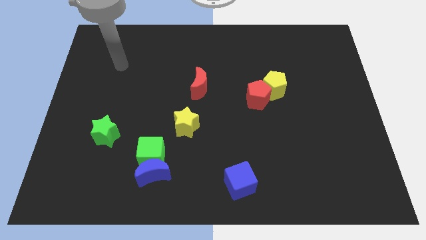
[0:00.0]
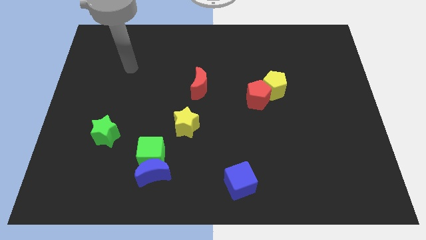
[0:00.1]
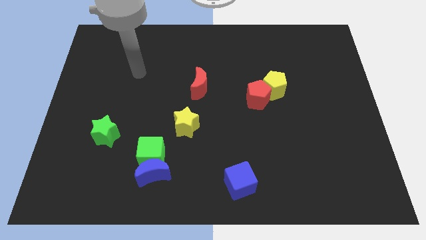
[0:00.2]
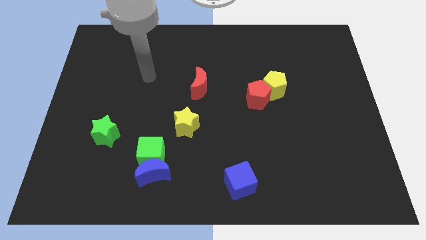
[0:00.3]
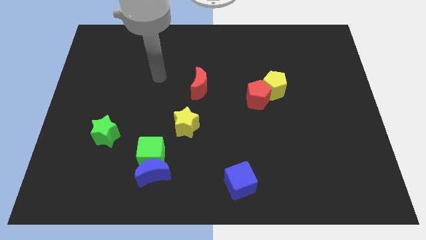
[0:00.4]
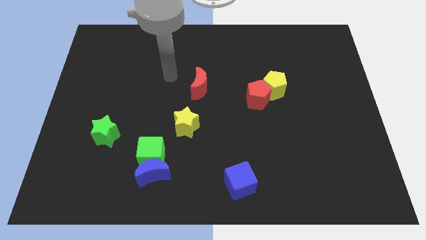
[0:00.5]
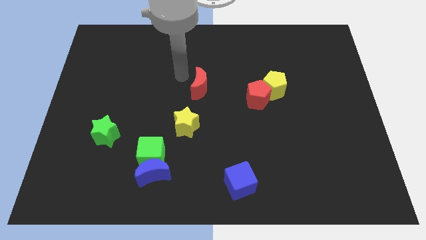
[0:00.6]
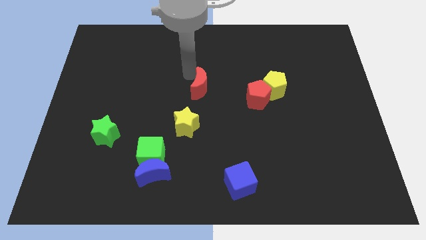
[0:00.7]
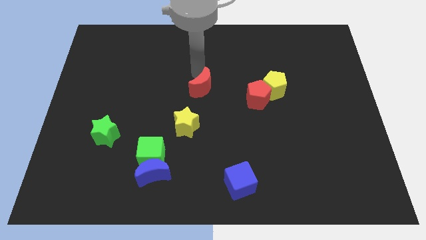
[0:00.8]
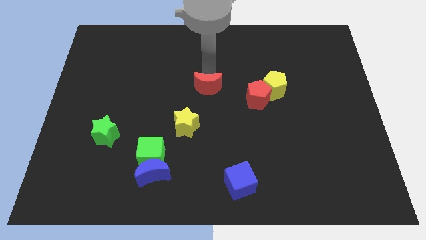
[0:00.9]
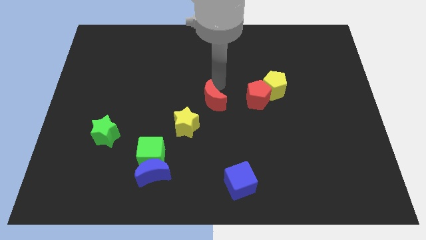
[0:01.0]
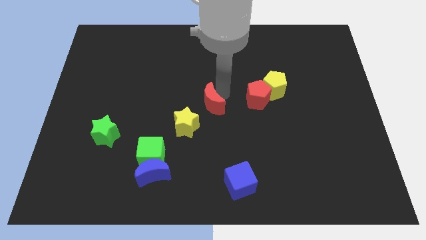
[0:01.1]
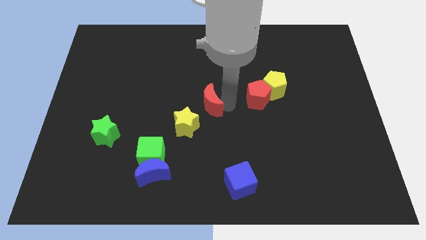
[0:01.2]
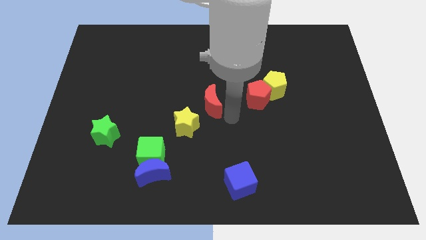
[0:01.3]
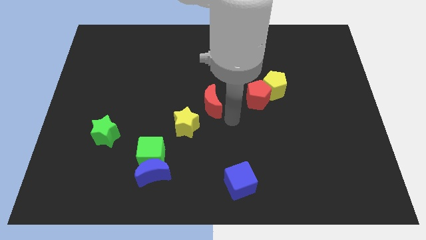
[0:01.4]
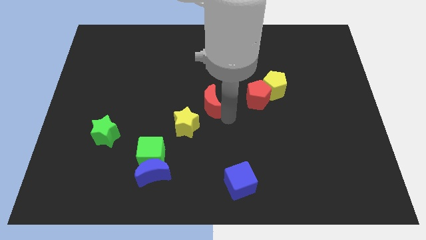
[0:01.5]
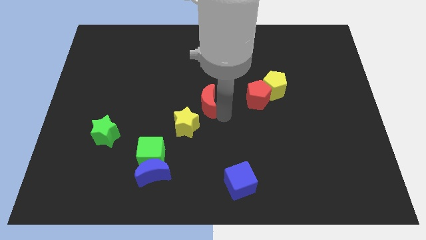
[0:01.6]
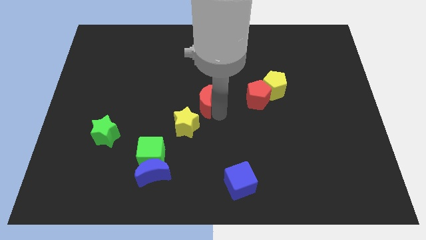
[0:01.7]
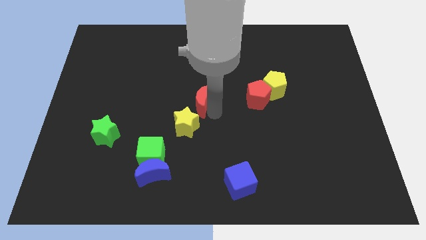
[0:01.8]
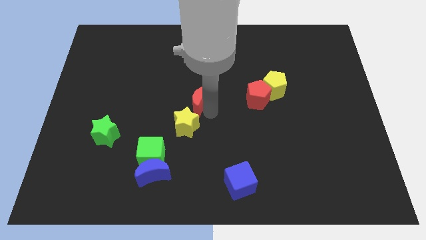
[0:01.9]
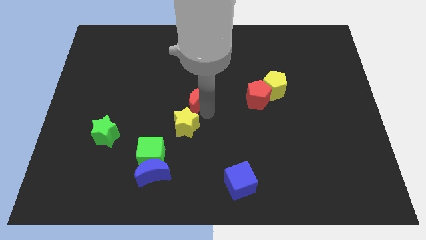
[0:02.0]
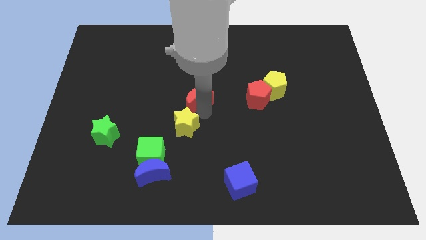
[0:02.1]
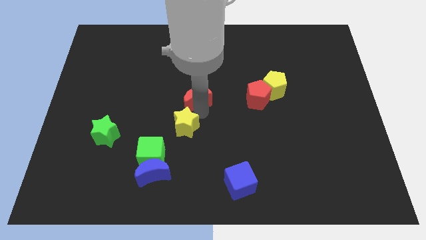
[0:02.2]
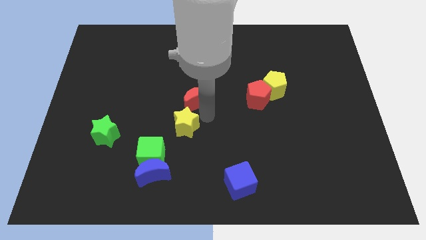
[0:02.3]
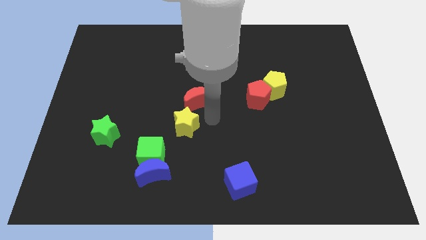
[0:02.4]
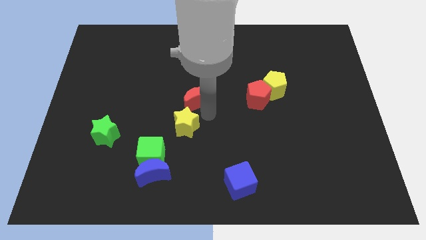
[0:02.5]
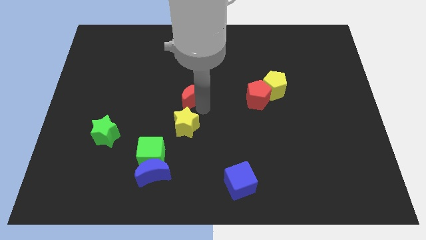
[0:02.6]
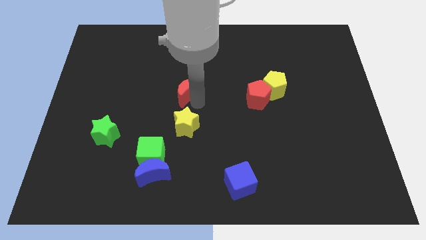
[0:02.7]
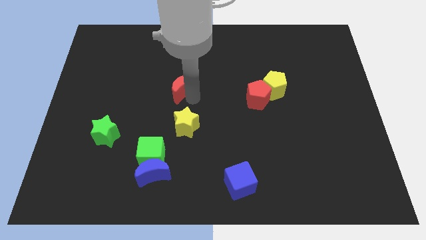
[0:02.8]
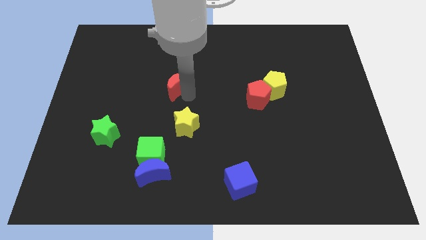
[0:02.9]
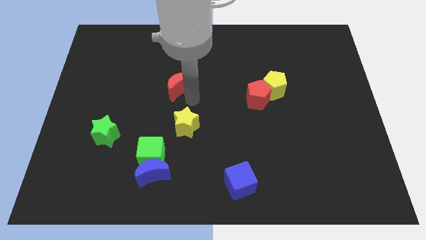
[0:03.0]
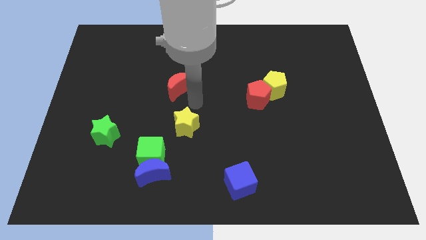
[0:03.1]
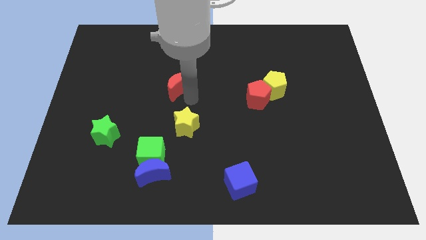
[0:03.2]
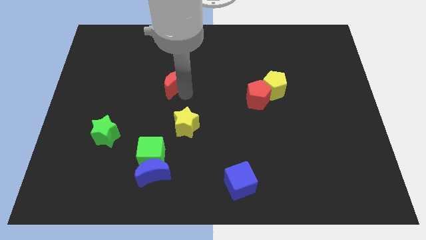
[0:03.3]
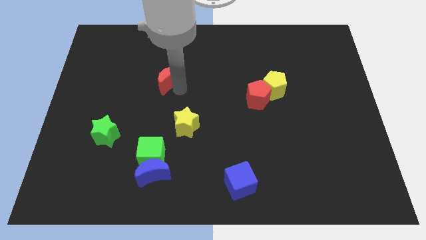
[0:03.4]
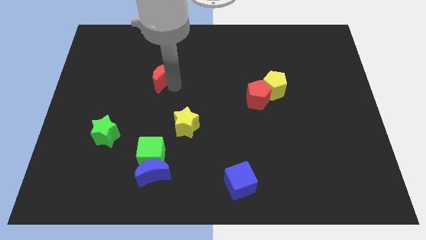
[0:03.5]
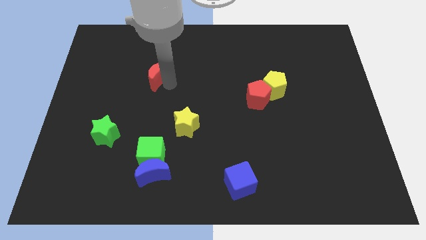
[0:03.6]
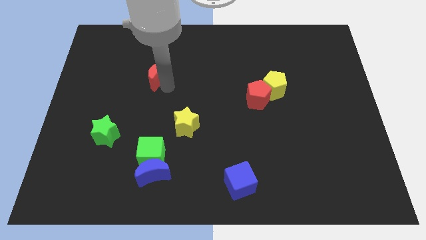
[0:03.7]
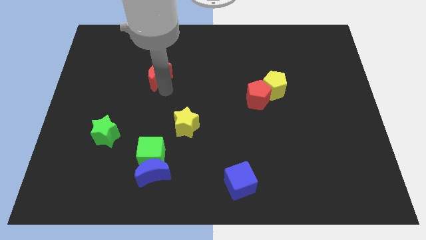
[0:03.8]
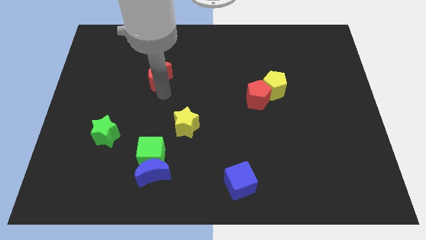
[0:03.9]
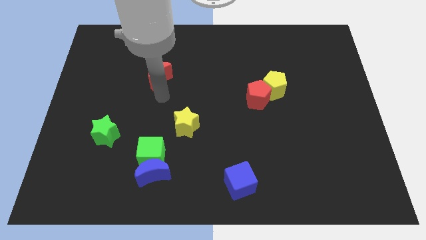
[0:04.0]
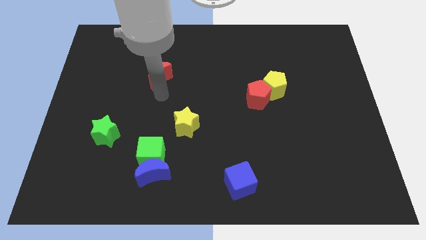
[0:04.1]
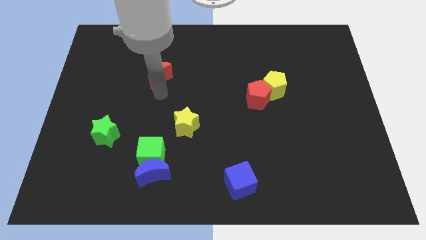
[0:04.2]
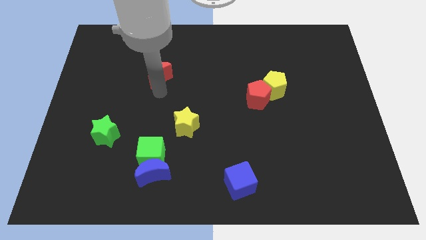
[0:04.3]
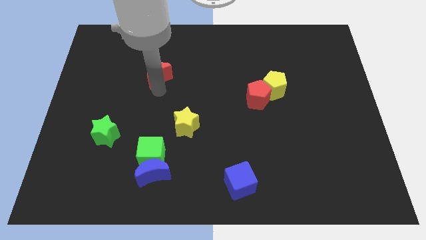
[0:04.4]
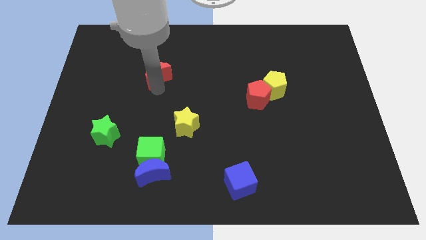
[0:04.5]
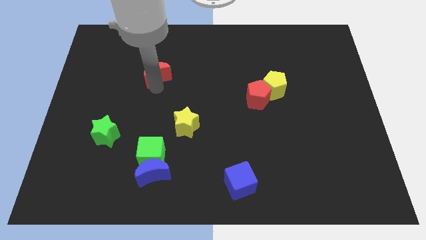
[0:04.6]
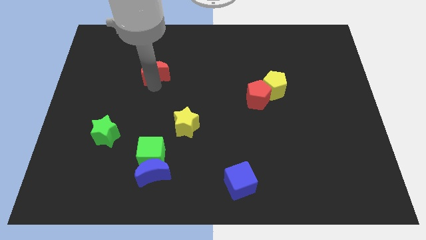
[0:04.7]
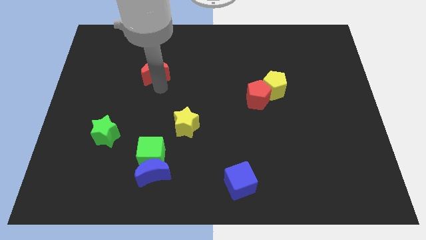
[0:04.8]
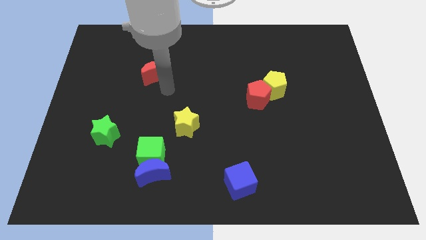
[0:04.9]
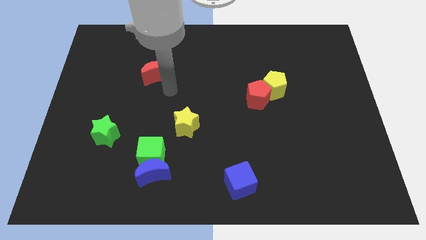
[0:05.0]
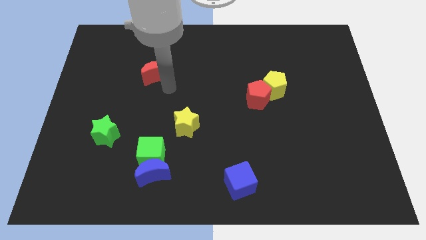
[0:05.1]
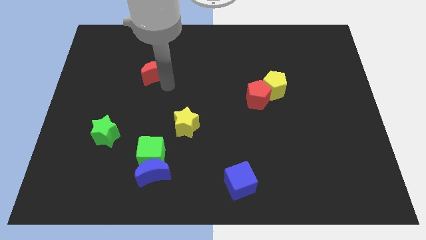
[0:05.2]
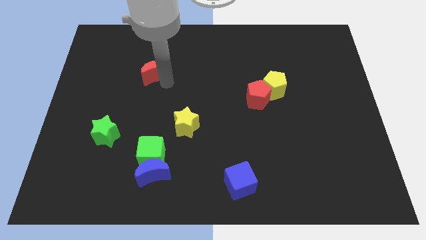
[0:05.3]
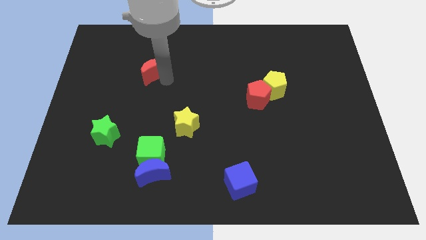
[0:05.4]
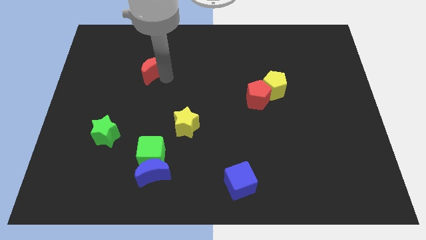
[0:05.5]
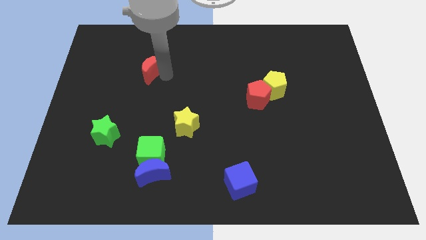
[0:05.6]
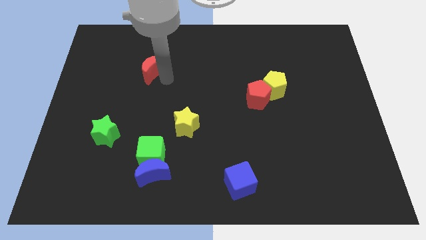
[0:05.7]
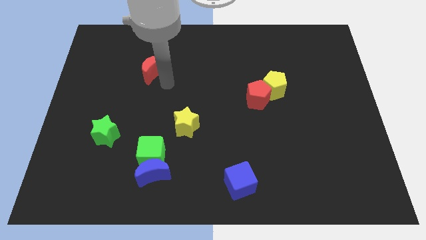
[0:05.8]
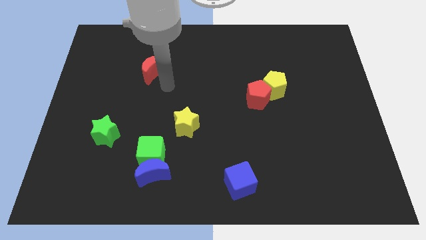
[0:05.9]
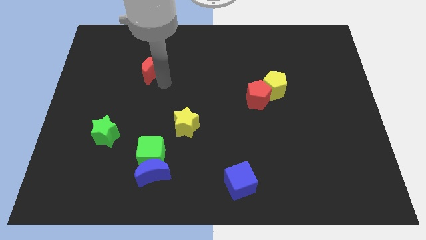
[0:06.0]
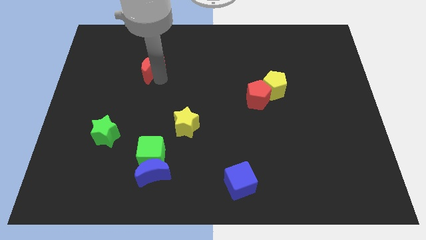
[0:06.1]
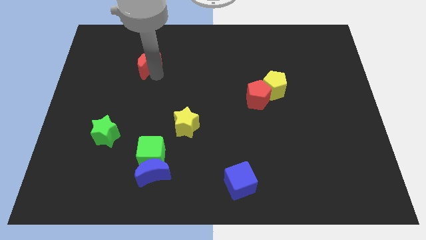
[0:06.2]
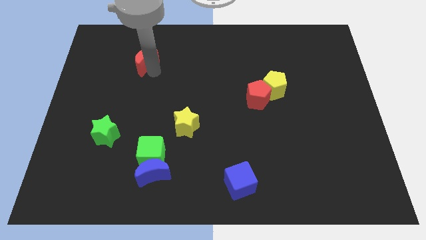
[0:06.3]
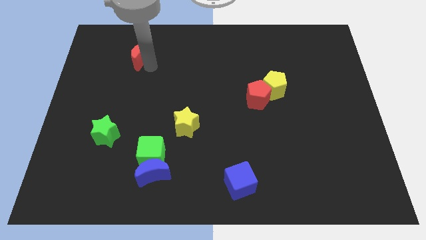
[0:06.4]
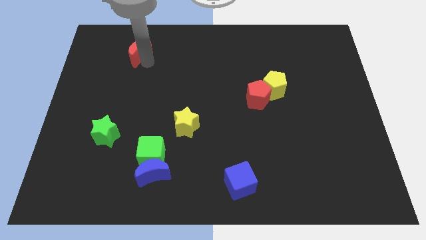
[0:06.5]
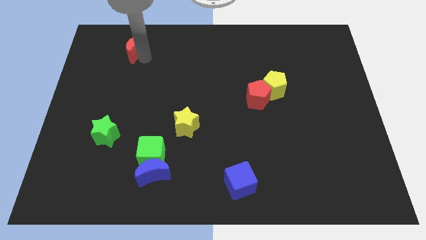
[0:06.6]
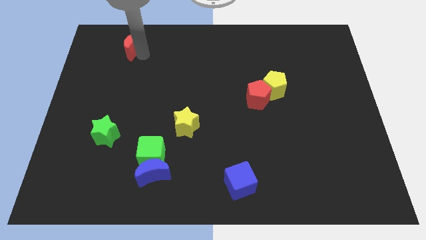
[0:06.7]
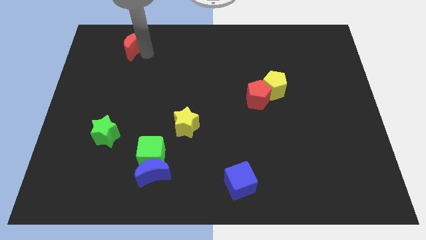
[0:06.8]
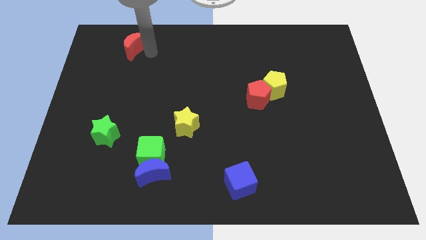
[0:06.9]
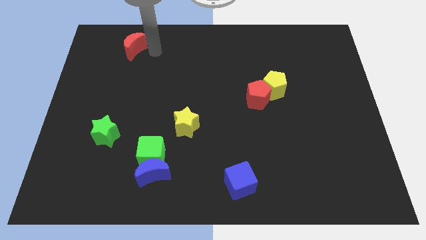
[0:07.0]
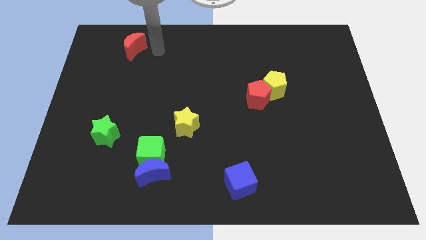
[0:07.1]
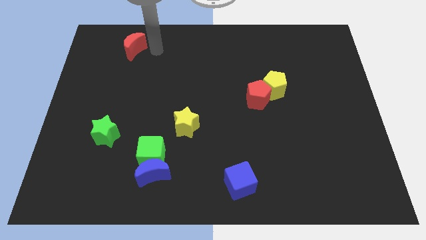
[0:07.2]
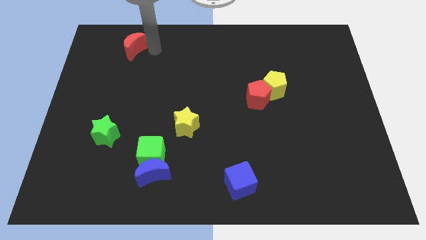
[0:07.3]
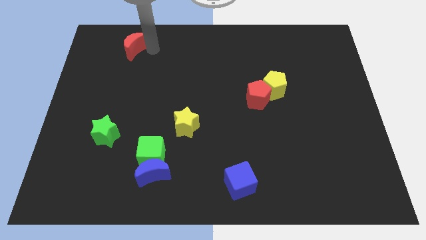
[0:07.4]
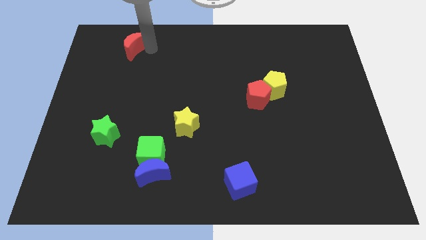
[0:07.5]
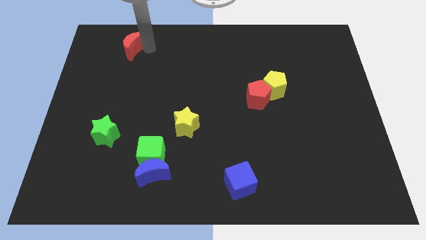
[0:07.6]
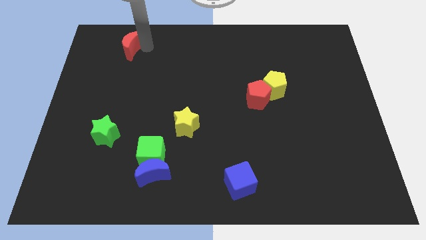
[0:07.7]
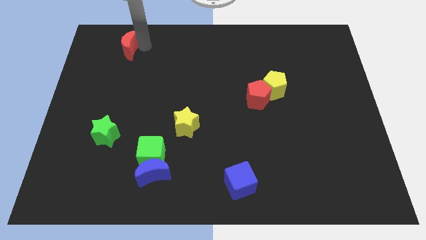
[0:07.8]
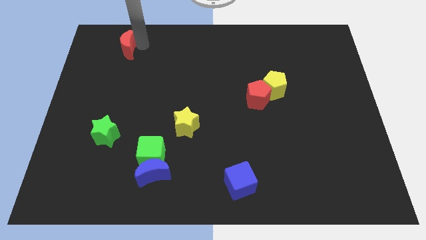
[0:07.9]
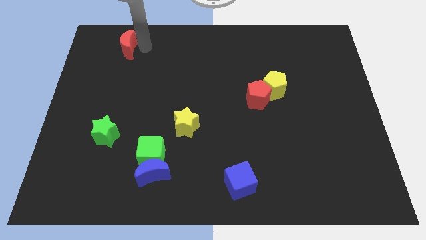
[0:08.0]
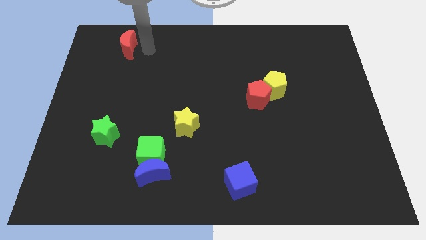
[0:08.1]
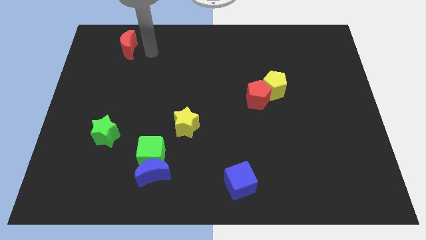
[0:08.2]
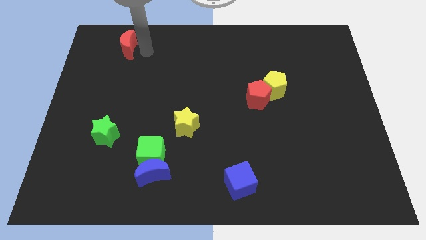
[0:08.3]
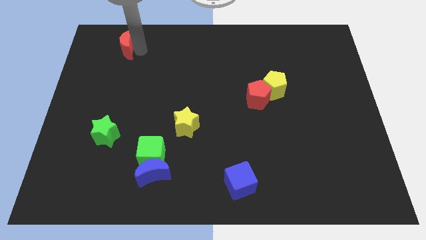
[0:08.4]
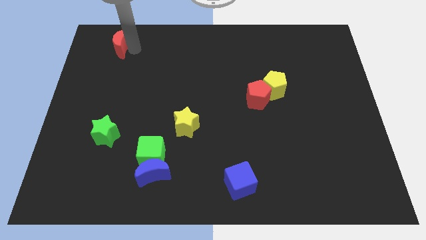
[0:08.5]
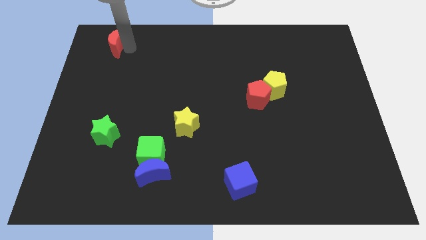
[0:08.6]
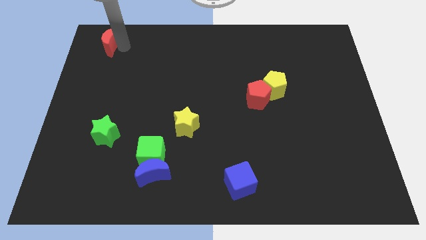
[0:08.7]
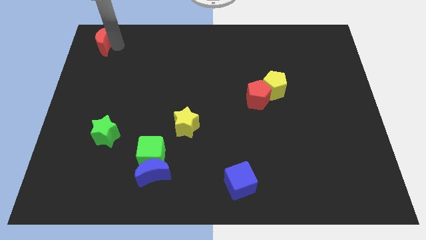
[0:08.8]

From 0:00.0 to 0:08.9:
put the red moon to the upper left corner
